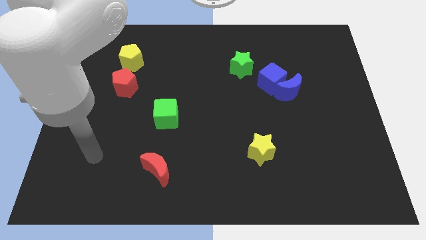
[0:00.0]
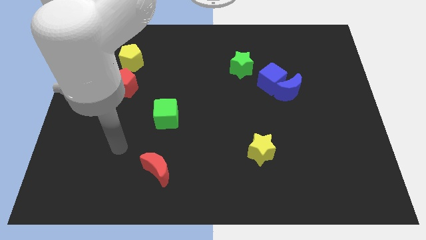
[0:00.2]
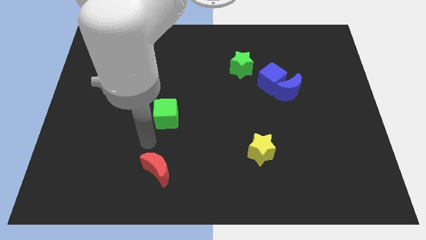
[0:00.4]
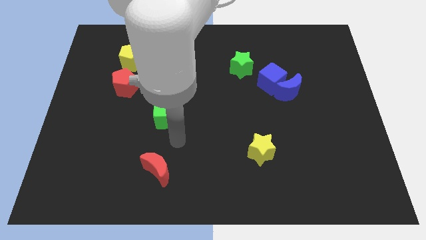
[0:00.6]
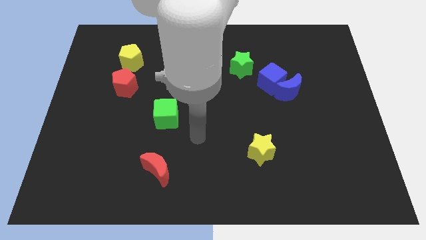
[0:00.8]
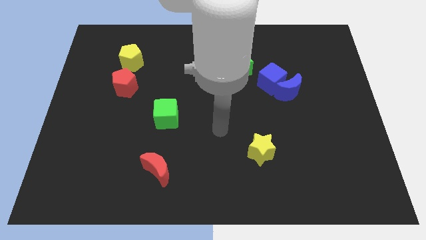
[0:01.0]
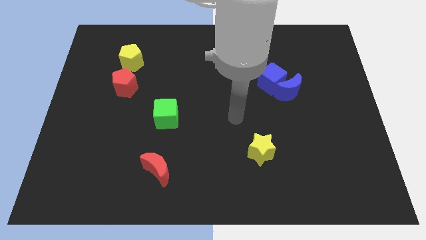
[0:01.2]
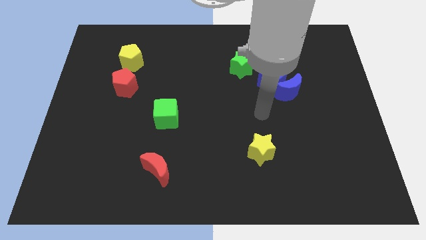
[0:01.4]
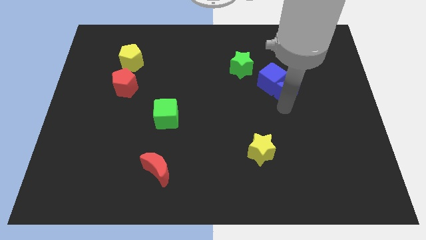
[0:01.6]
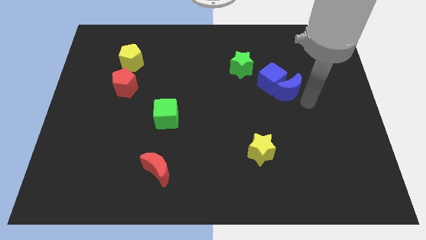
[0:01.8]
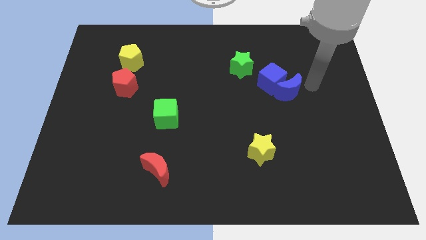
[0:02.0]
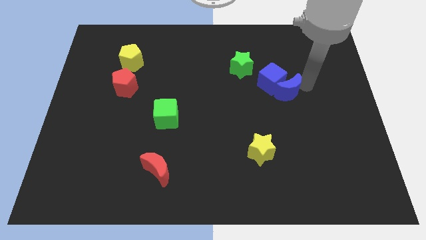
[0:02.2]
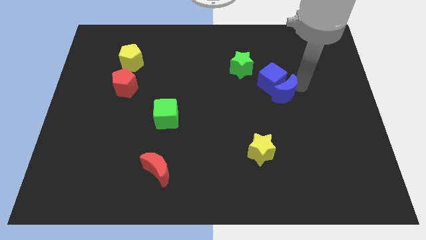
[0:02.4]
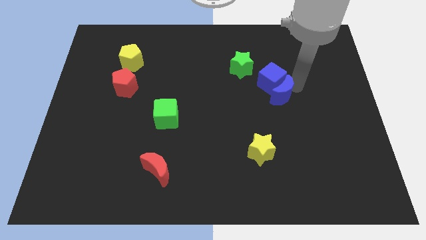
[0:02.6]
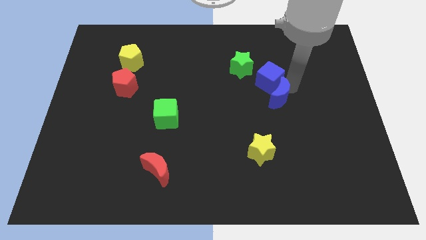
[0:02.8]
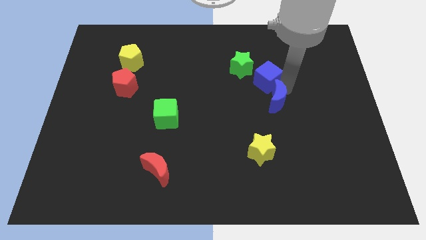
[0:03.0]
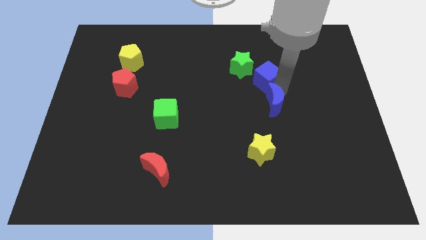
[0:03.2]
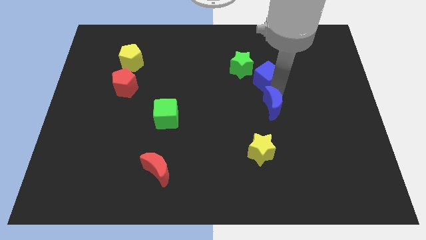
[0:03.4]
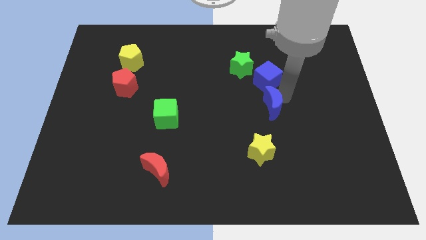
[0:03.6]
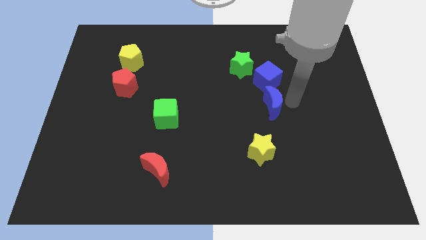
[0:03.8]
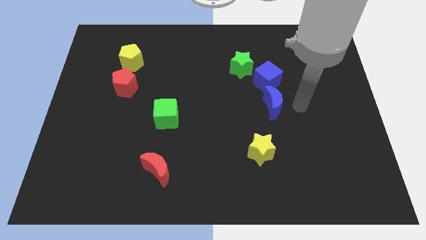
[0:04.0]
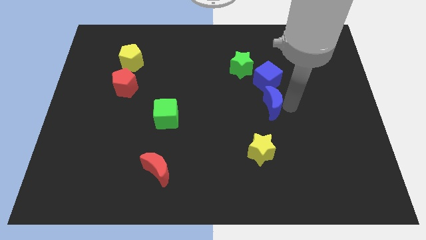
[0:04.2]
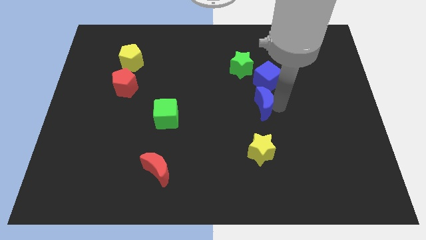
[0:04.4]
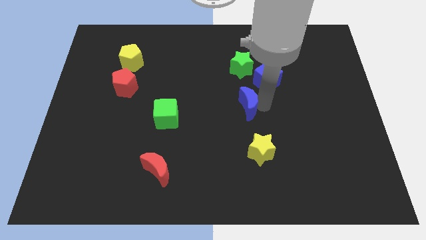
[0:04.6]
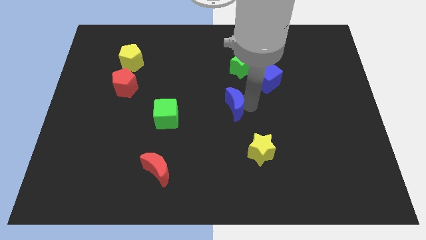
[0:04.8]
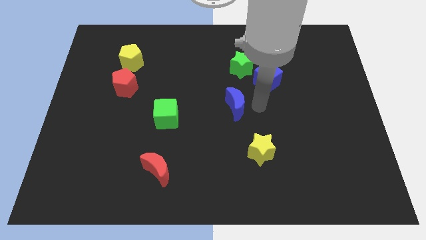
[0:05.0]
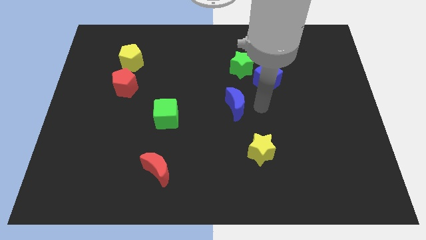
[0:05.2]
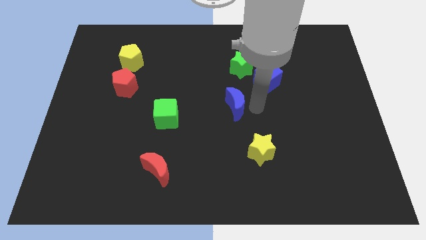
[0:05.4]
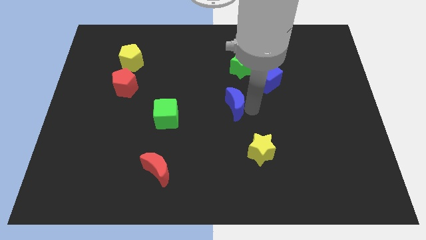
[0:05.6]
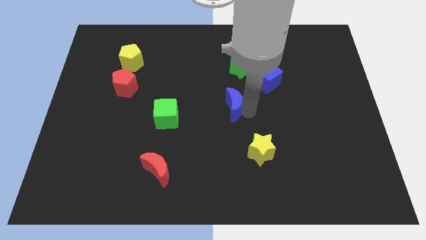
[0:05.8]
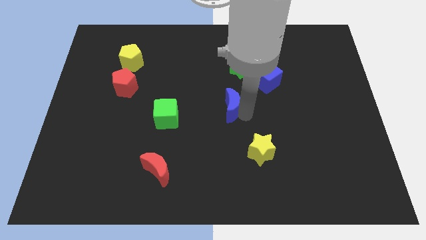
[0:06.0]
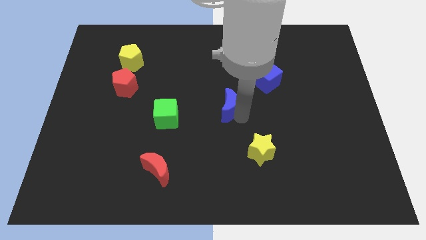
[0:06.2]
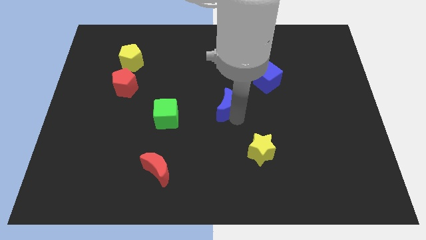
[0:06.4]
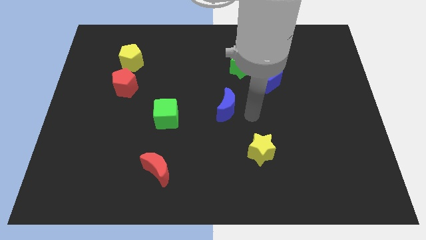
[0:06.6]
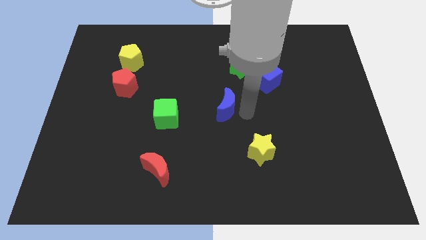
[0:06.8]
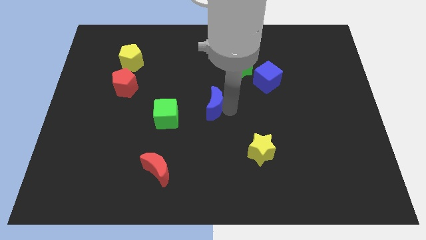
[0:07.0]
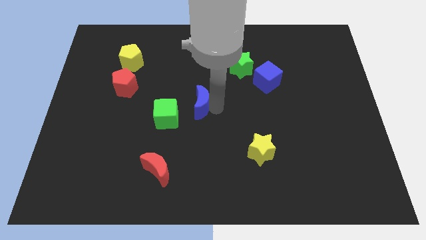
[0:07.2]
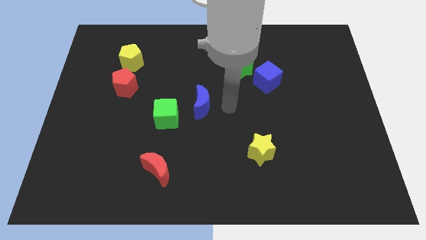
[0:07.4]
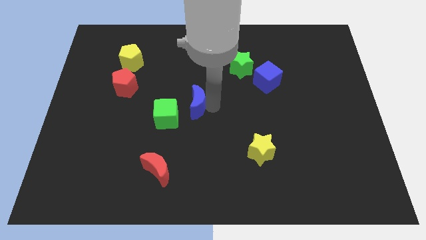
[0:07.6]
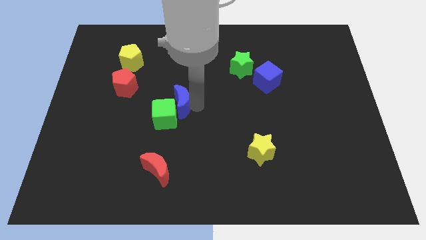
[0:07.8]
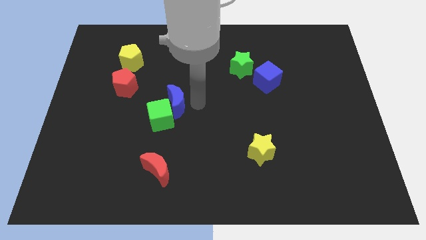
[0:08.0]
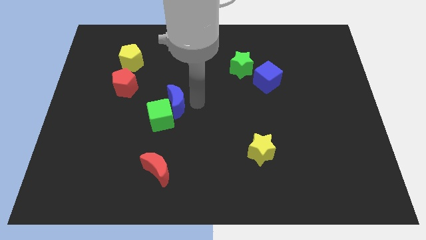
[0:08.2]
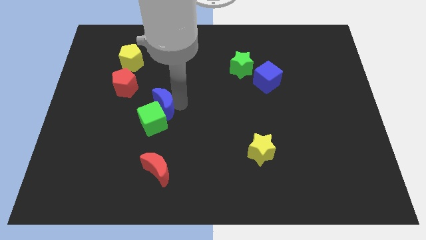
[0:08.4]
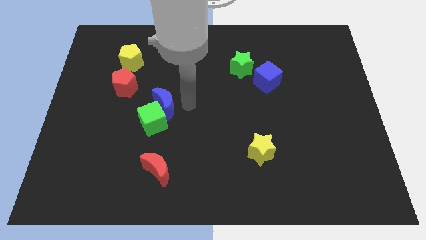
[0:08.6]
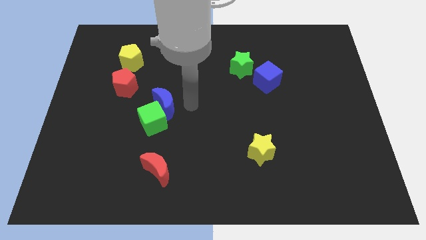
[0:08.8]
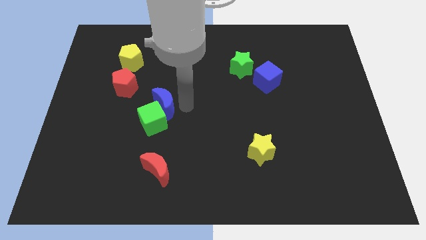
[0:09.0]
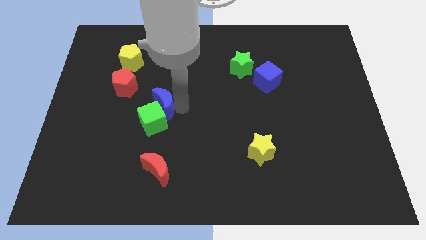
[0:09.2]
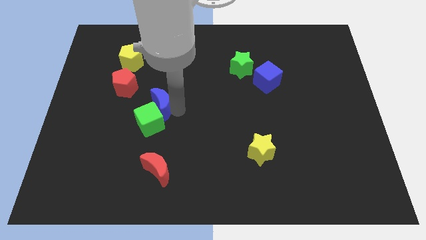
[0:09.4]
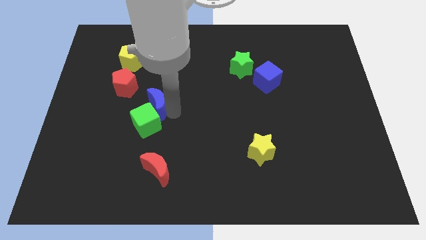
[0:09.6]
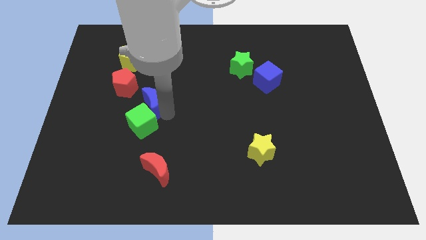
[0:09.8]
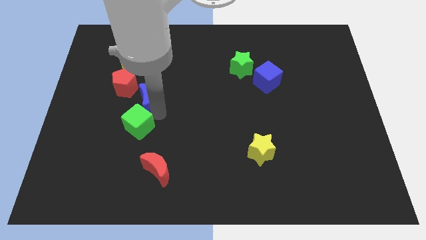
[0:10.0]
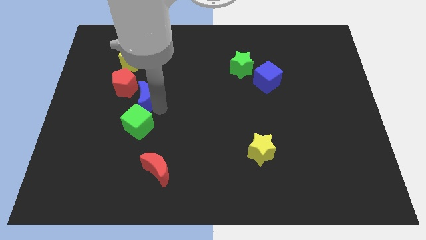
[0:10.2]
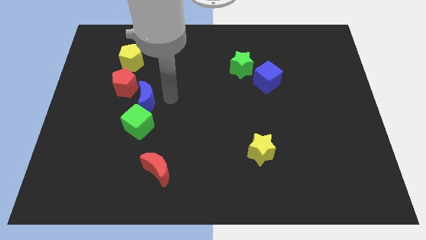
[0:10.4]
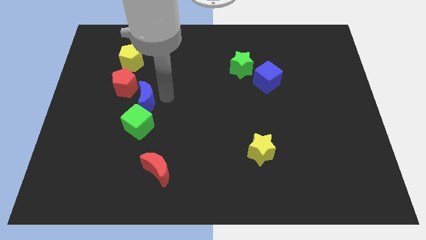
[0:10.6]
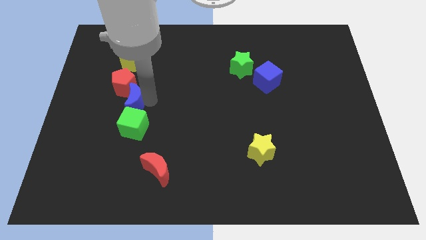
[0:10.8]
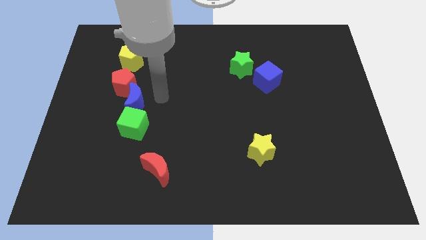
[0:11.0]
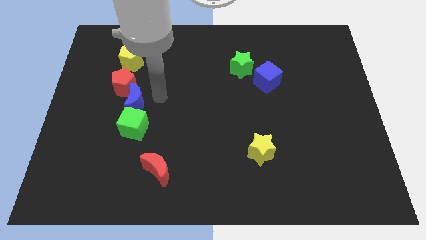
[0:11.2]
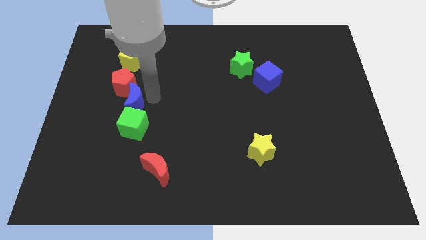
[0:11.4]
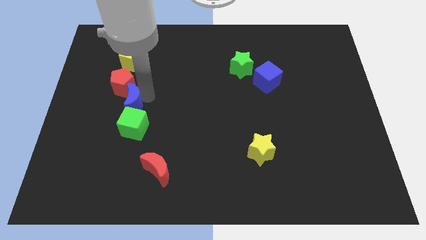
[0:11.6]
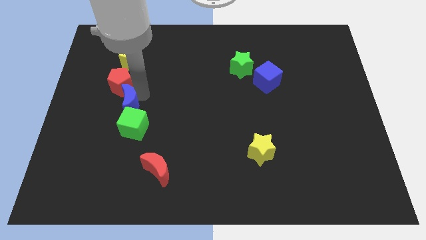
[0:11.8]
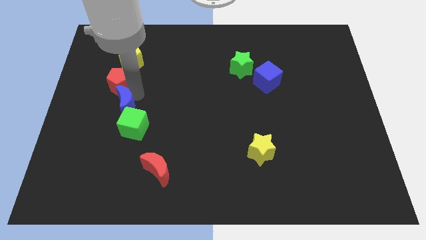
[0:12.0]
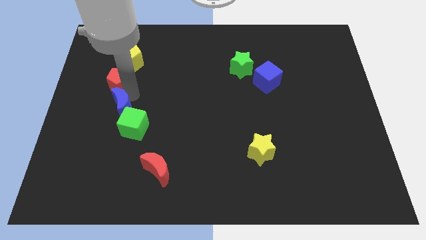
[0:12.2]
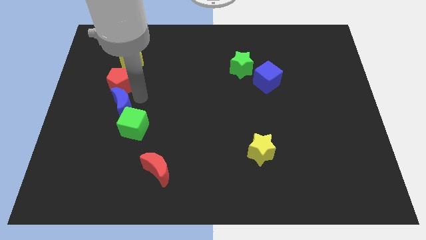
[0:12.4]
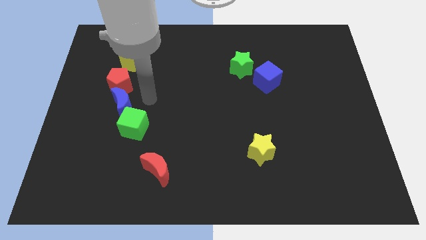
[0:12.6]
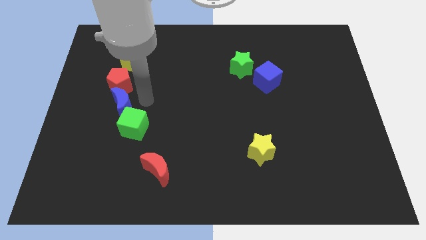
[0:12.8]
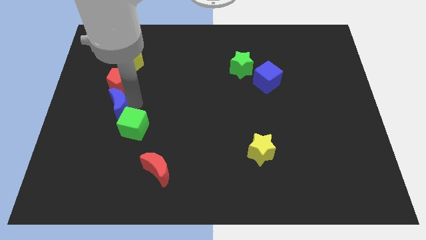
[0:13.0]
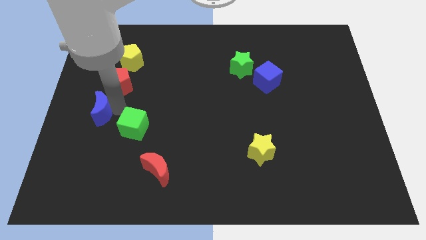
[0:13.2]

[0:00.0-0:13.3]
move the blue moon to the left side of the board
